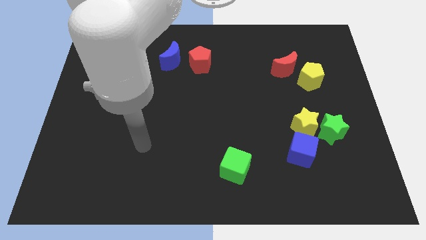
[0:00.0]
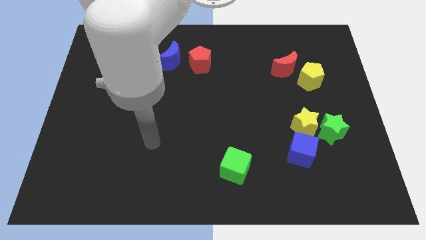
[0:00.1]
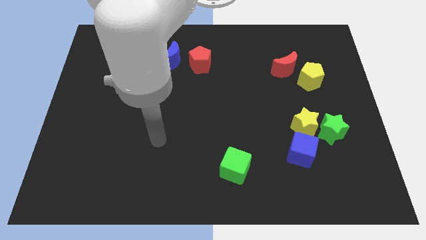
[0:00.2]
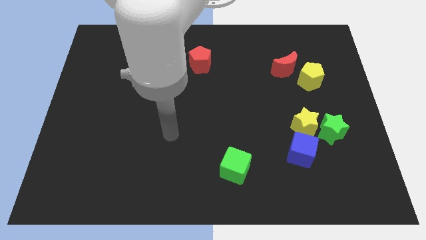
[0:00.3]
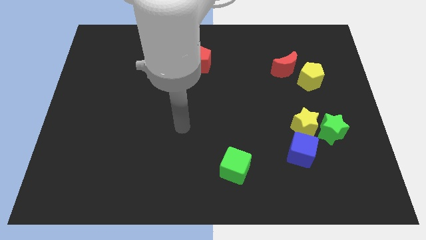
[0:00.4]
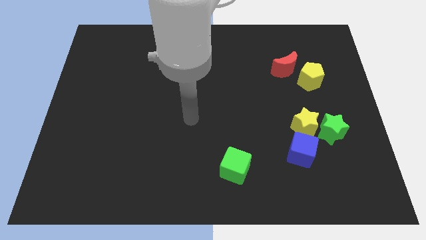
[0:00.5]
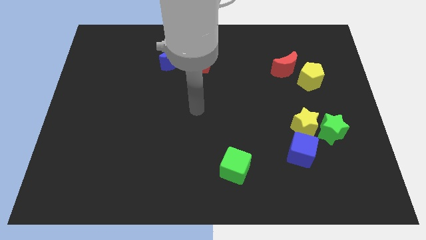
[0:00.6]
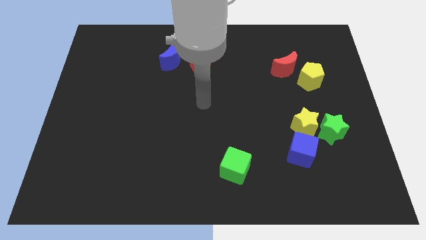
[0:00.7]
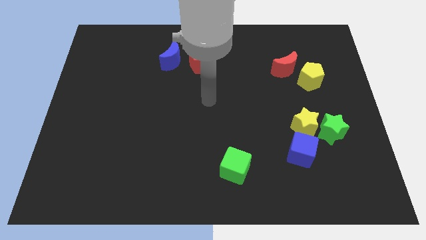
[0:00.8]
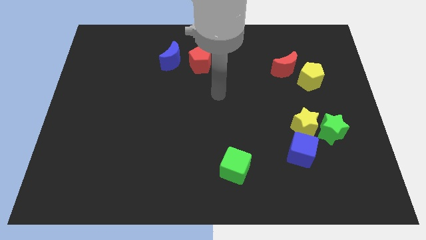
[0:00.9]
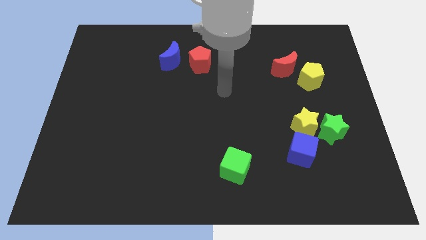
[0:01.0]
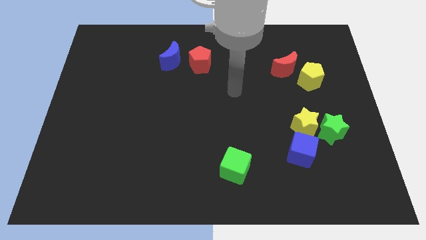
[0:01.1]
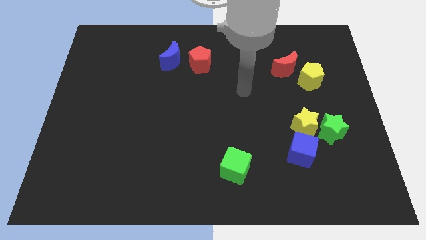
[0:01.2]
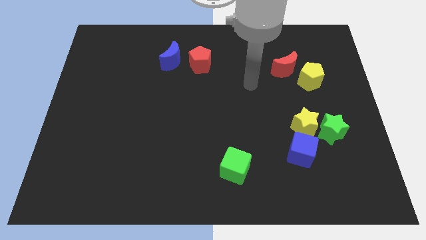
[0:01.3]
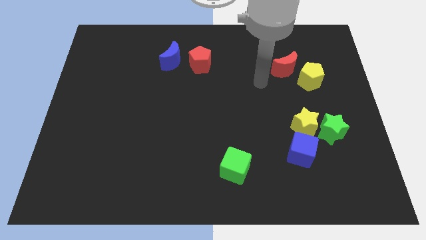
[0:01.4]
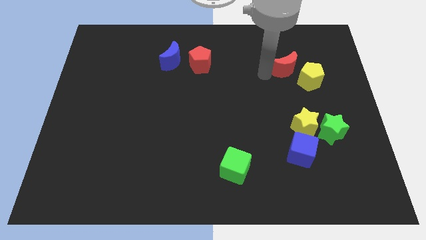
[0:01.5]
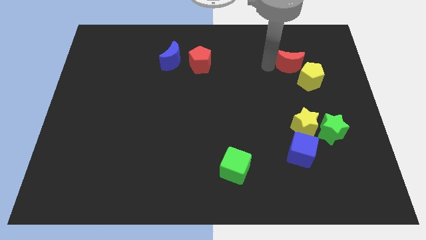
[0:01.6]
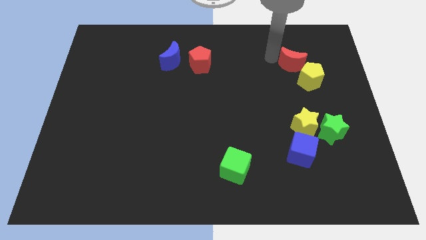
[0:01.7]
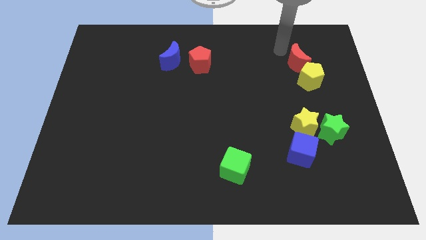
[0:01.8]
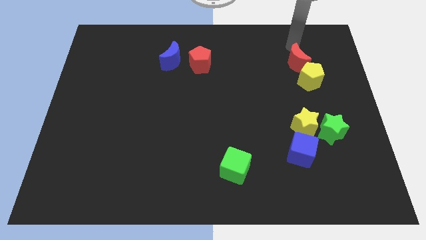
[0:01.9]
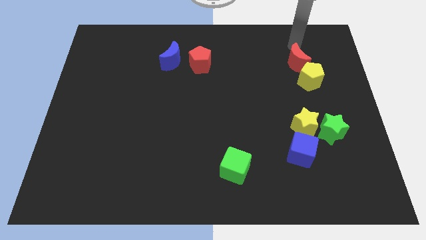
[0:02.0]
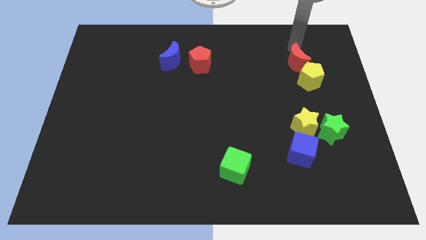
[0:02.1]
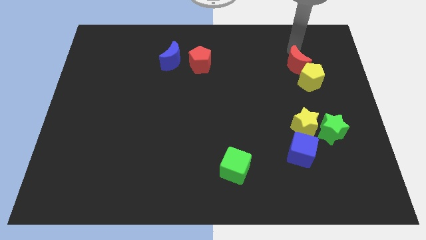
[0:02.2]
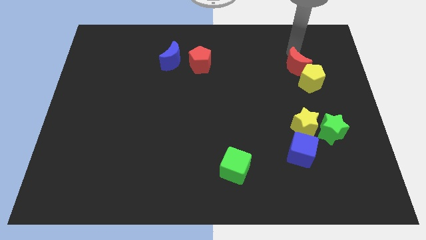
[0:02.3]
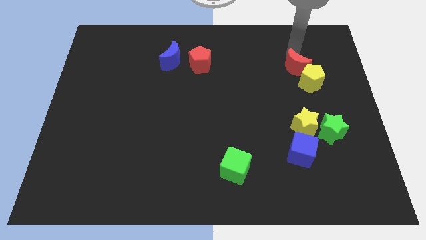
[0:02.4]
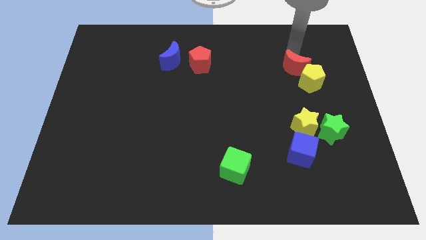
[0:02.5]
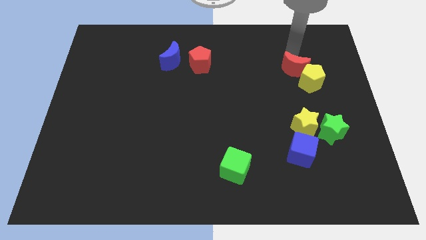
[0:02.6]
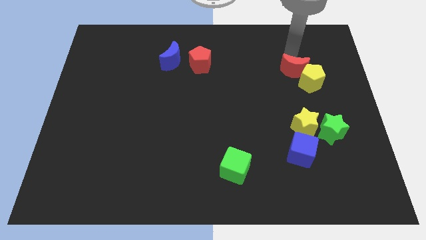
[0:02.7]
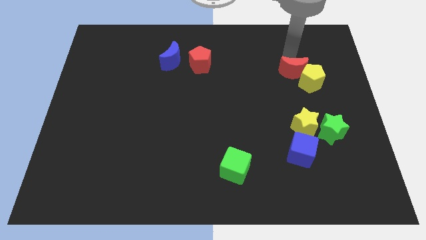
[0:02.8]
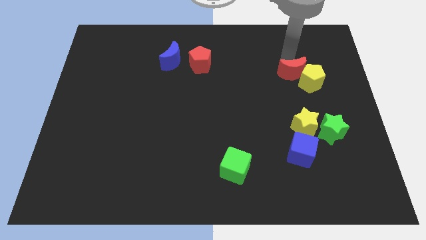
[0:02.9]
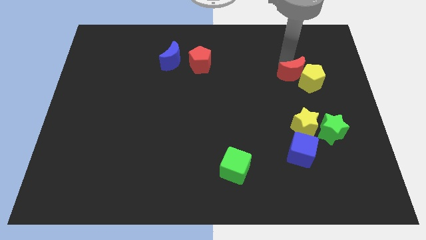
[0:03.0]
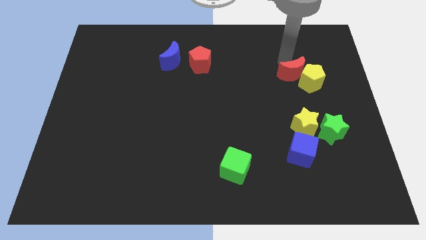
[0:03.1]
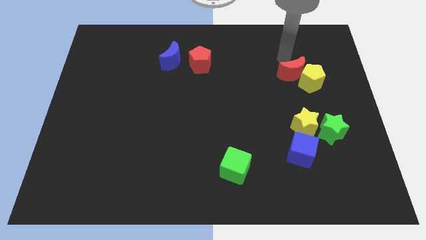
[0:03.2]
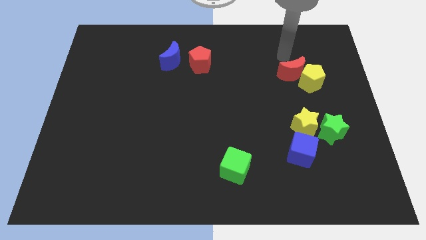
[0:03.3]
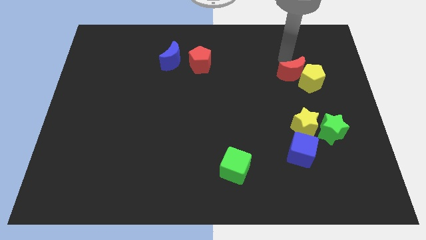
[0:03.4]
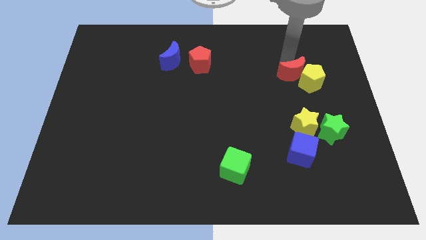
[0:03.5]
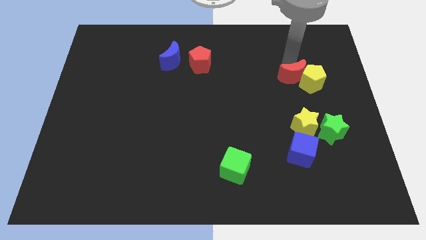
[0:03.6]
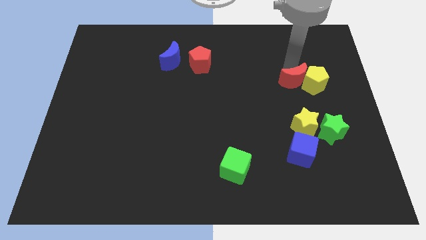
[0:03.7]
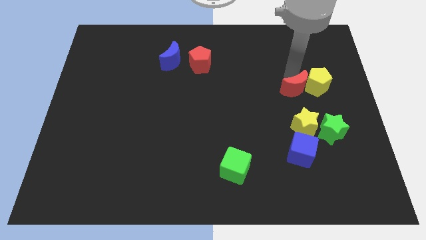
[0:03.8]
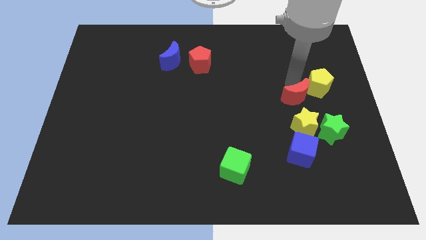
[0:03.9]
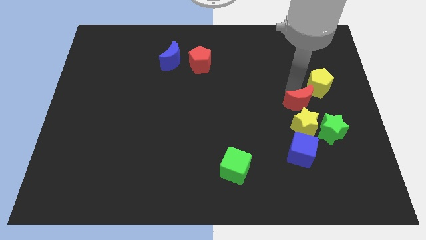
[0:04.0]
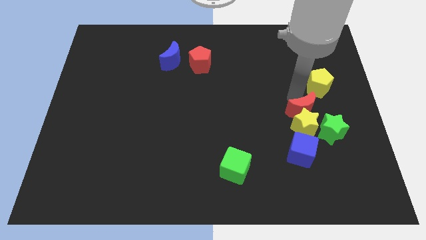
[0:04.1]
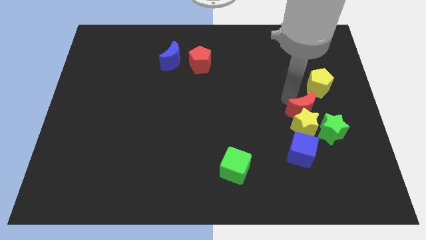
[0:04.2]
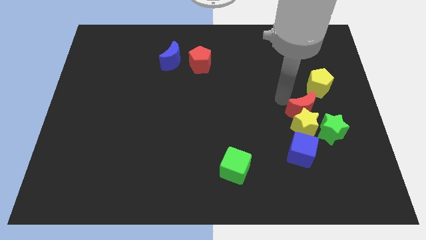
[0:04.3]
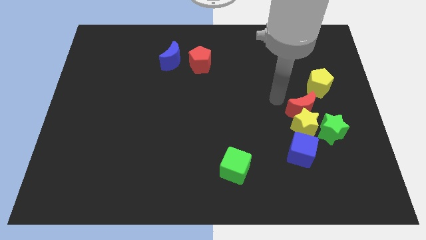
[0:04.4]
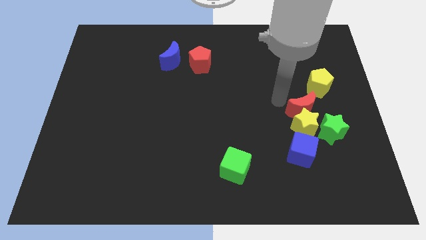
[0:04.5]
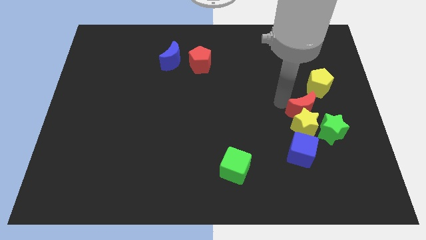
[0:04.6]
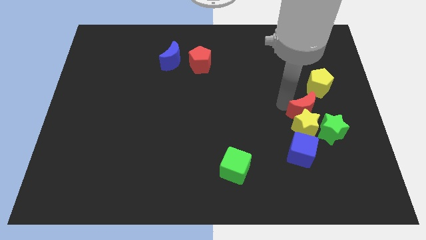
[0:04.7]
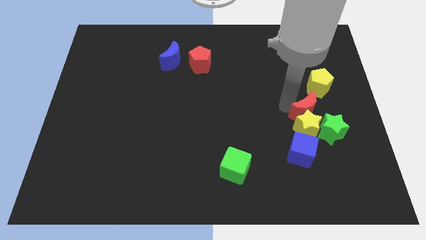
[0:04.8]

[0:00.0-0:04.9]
push the red moon to the bottom side of the yellow pentagon

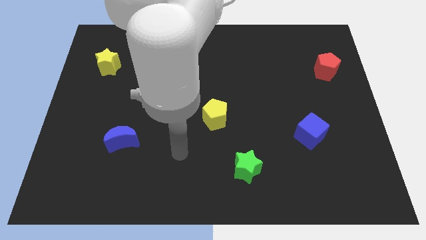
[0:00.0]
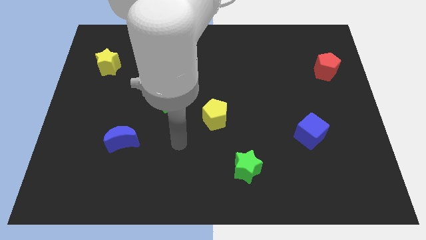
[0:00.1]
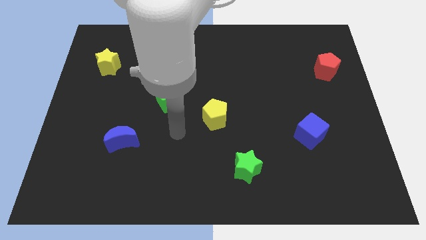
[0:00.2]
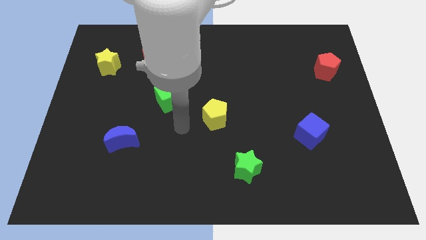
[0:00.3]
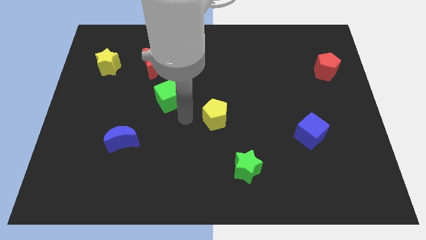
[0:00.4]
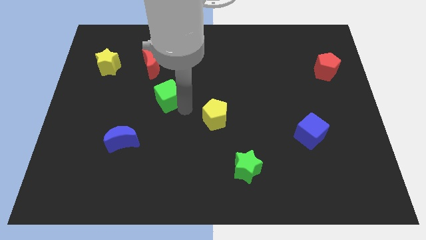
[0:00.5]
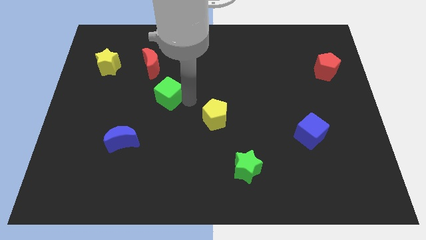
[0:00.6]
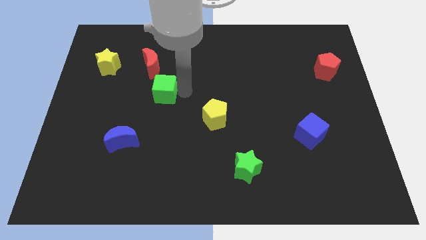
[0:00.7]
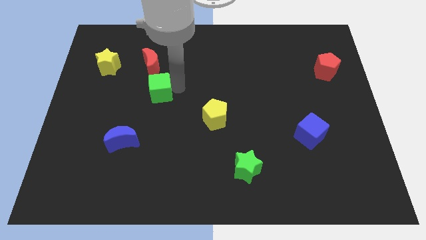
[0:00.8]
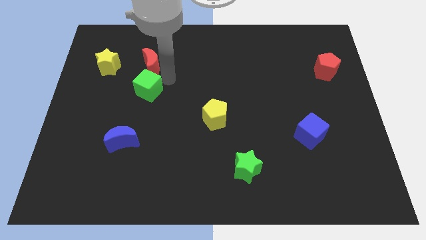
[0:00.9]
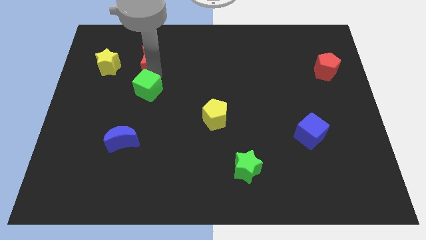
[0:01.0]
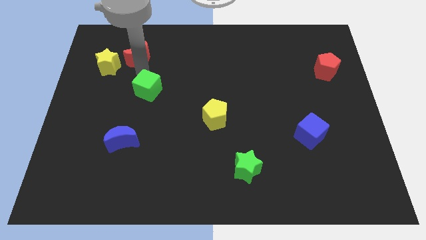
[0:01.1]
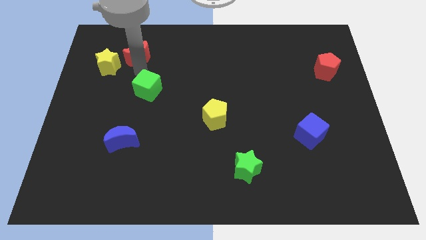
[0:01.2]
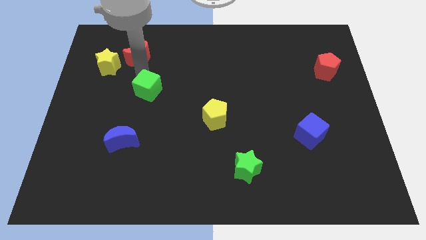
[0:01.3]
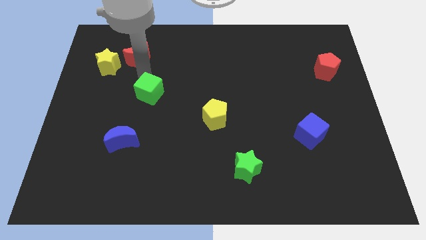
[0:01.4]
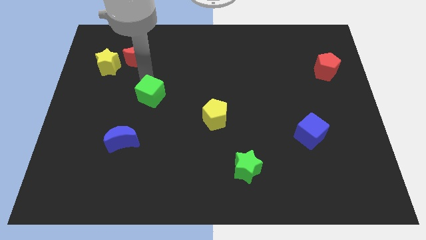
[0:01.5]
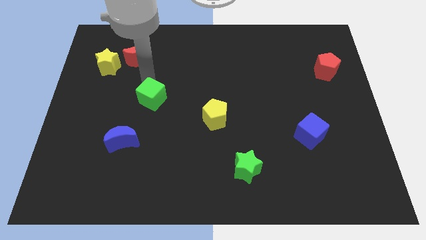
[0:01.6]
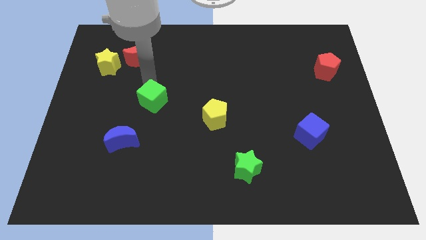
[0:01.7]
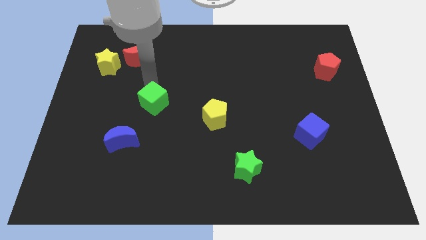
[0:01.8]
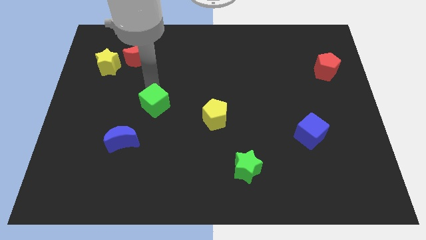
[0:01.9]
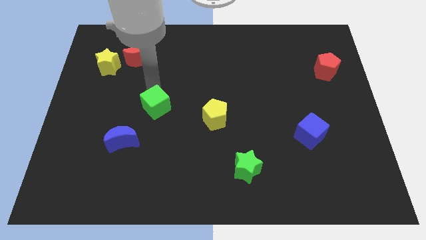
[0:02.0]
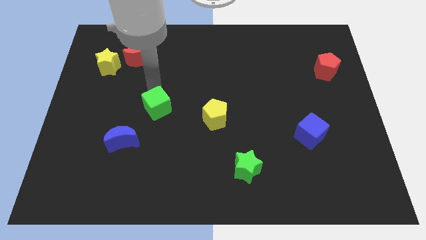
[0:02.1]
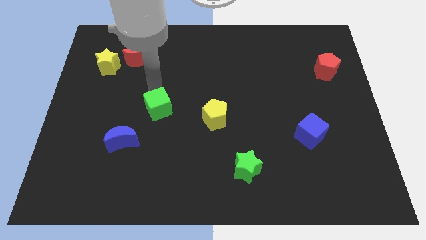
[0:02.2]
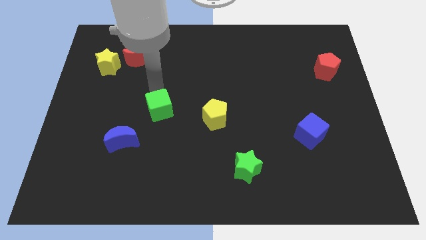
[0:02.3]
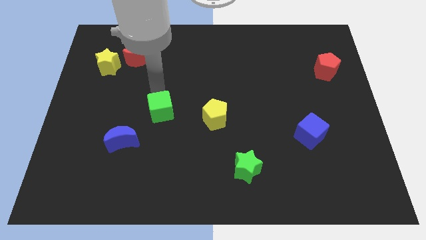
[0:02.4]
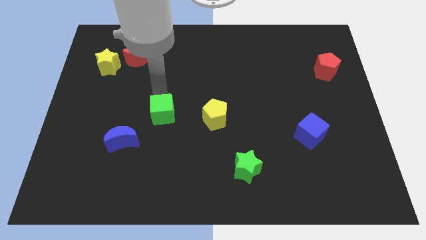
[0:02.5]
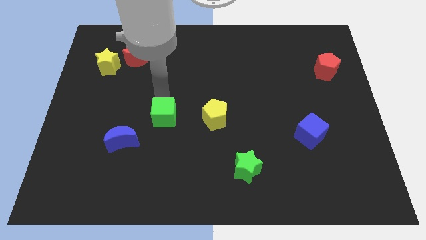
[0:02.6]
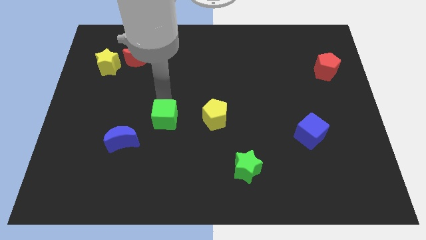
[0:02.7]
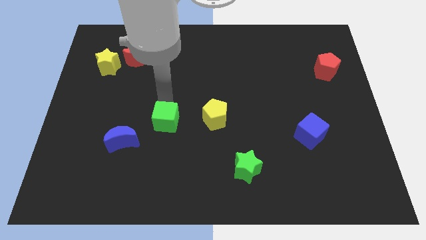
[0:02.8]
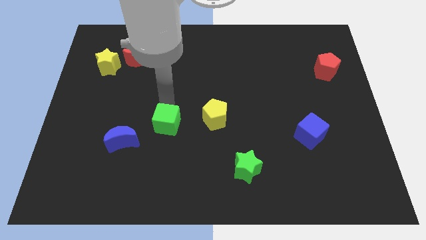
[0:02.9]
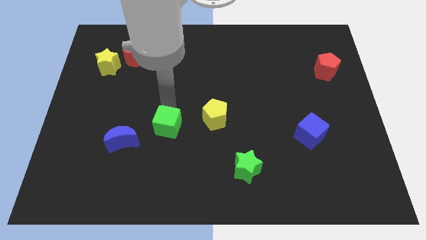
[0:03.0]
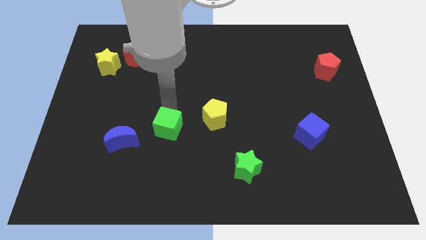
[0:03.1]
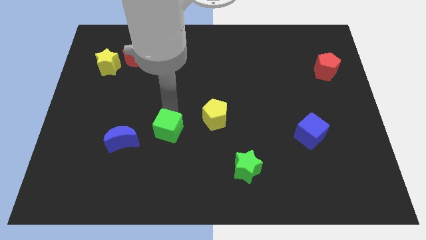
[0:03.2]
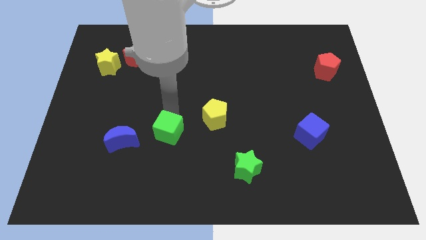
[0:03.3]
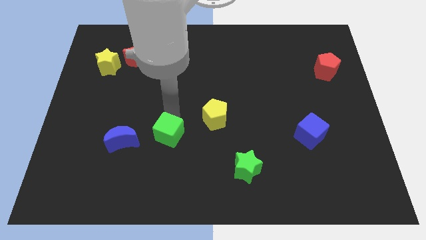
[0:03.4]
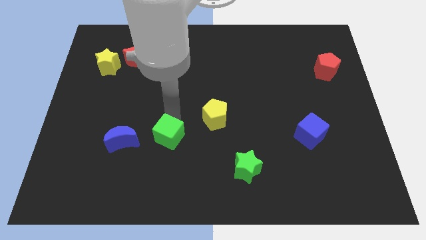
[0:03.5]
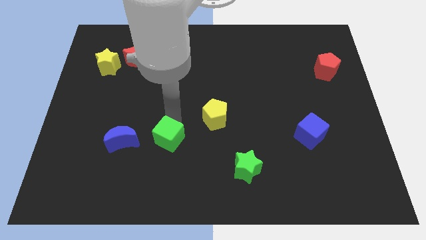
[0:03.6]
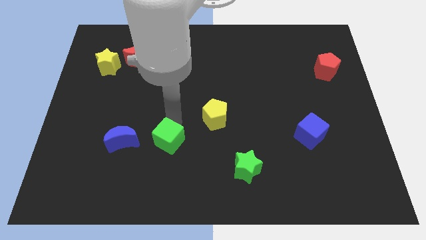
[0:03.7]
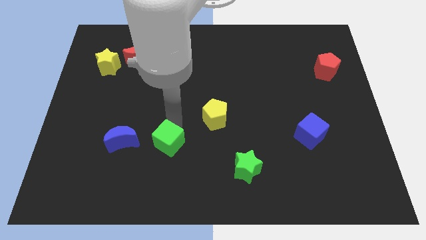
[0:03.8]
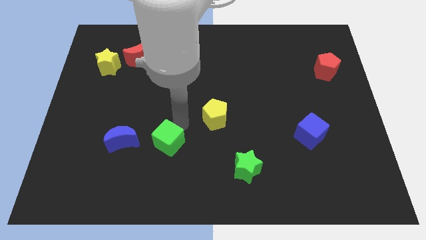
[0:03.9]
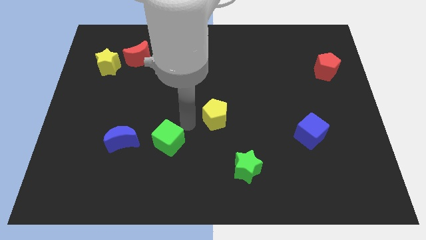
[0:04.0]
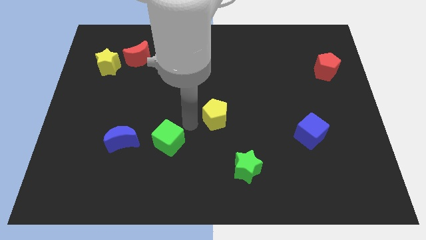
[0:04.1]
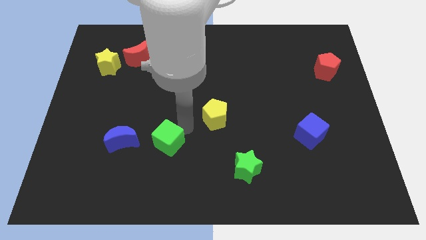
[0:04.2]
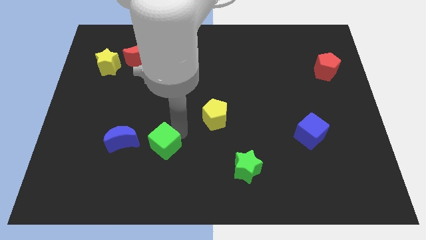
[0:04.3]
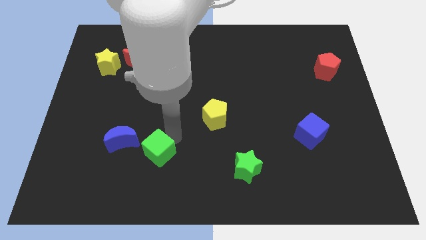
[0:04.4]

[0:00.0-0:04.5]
slide the green cube to the bottom right side of the blue moon
